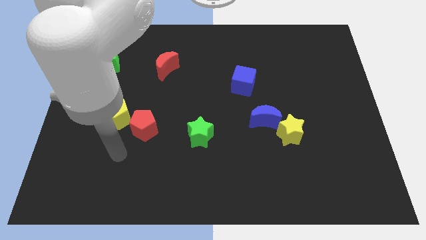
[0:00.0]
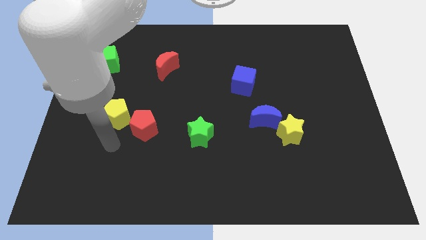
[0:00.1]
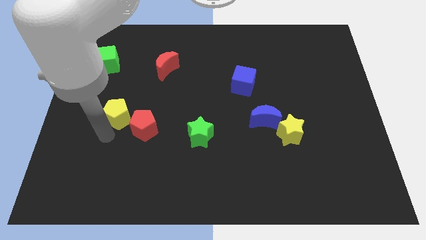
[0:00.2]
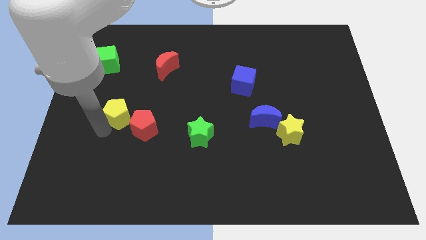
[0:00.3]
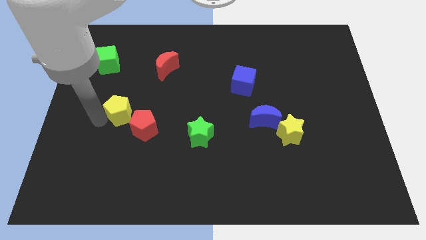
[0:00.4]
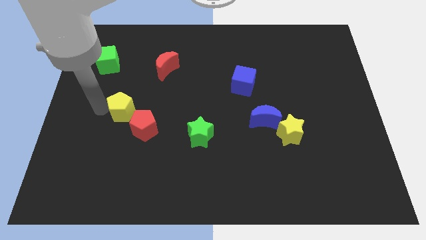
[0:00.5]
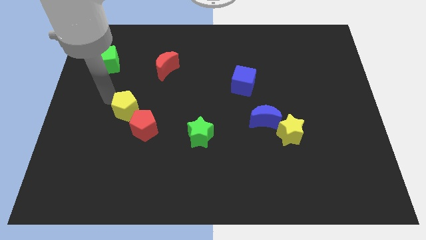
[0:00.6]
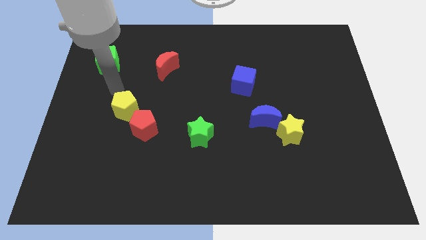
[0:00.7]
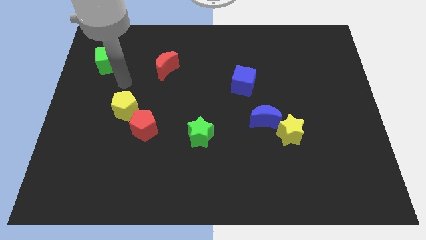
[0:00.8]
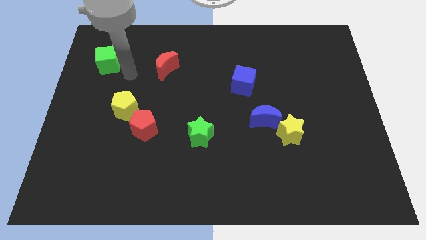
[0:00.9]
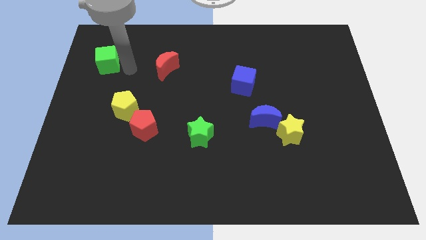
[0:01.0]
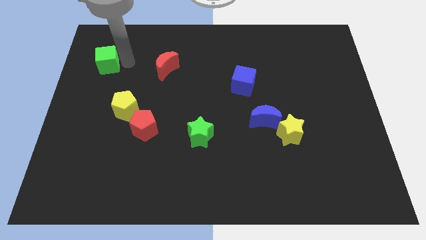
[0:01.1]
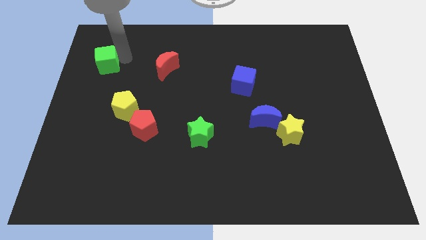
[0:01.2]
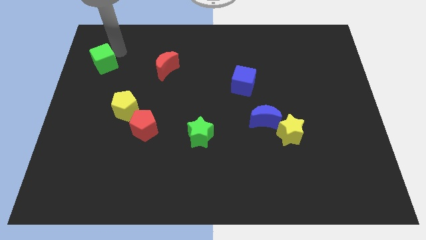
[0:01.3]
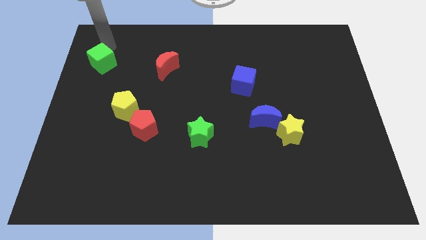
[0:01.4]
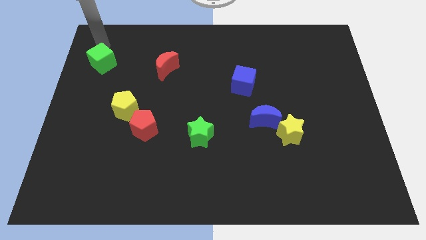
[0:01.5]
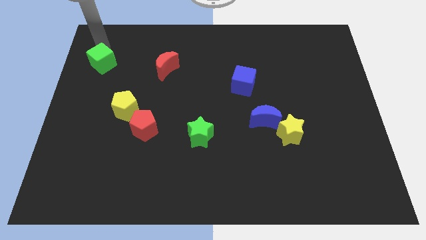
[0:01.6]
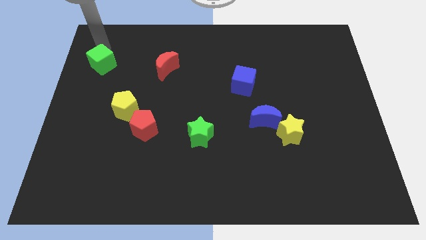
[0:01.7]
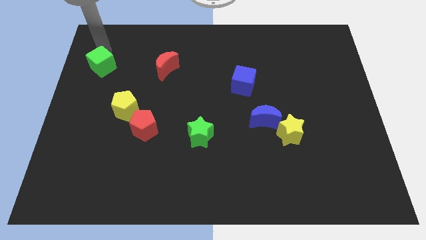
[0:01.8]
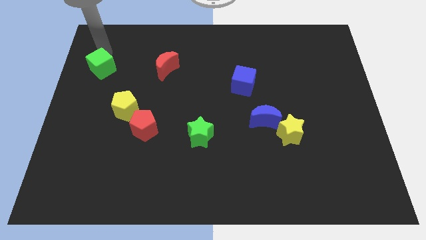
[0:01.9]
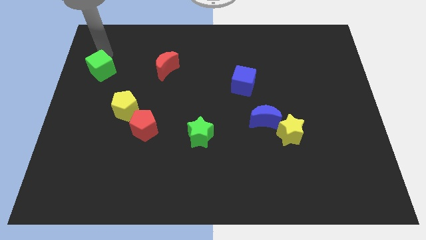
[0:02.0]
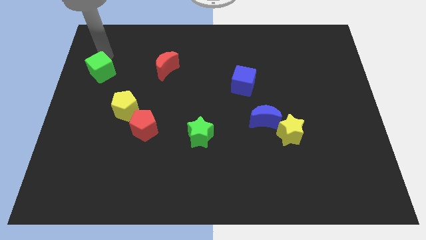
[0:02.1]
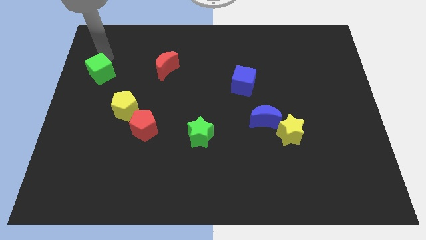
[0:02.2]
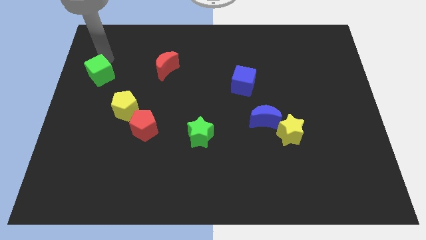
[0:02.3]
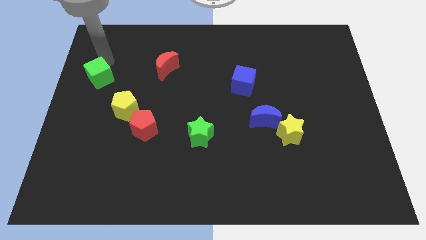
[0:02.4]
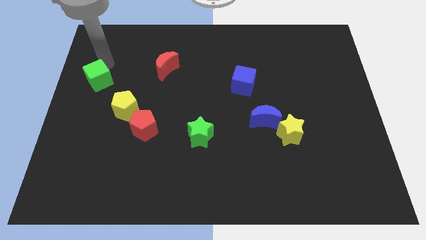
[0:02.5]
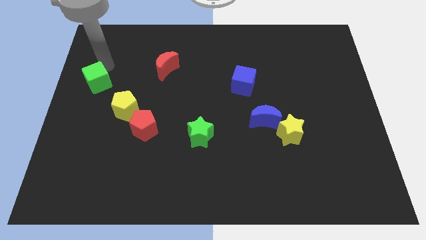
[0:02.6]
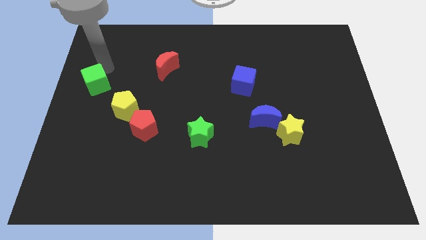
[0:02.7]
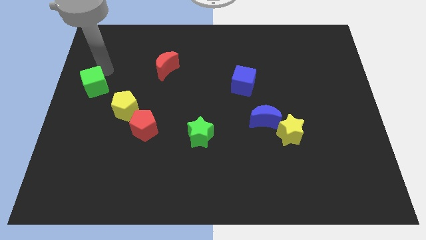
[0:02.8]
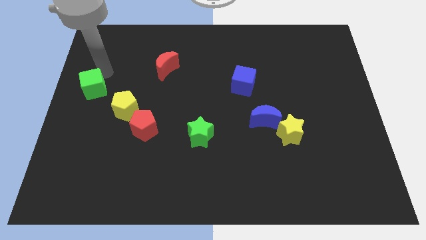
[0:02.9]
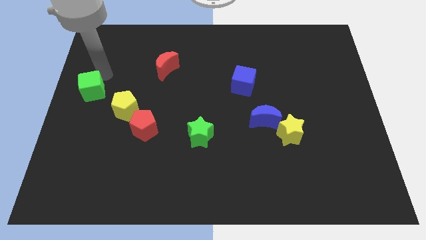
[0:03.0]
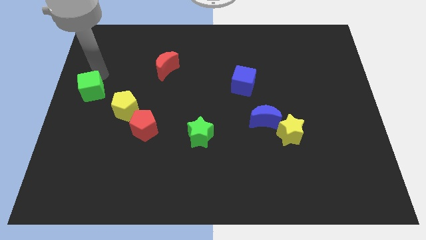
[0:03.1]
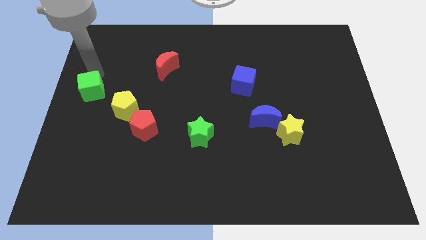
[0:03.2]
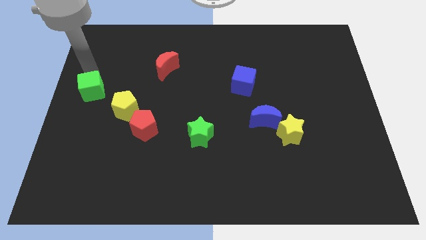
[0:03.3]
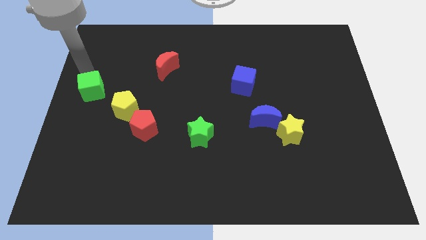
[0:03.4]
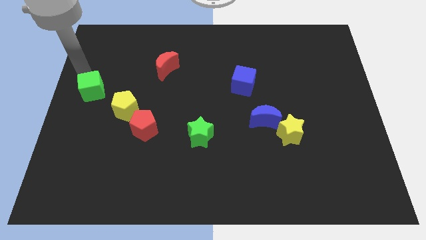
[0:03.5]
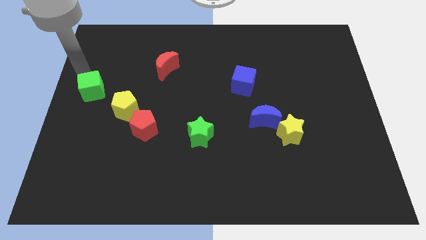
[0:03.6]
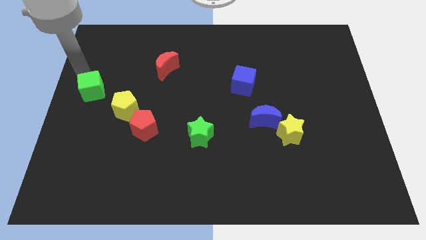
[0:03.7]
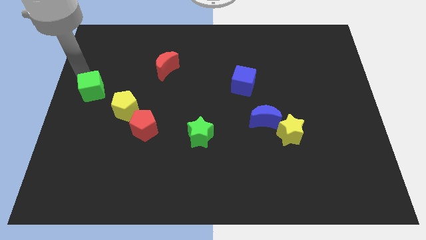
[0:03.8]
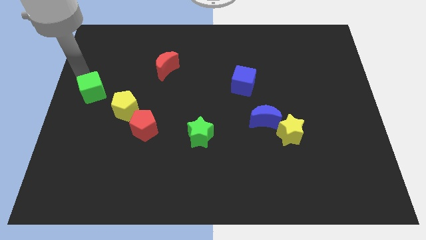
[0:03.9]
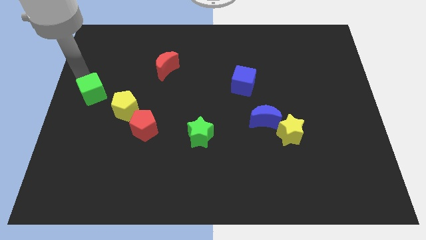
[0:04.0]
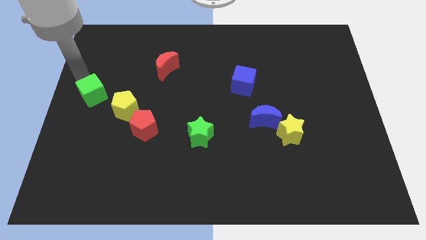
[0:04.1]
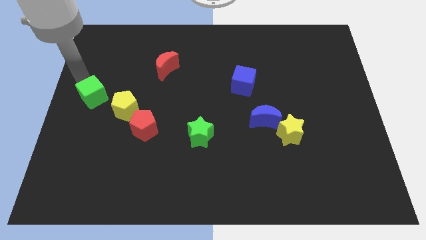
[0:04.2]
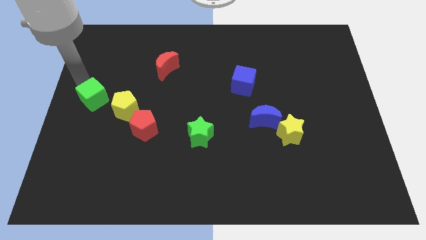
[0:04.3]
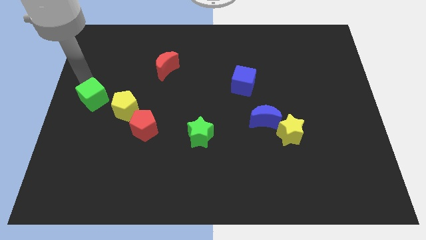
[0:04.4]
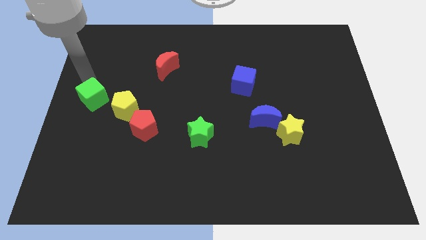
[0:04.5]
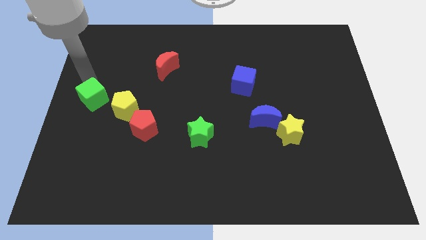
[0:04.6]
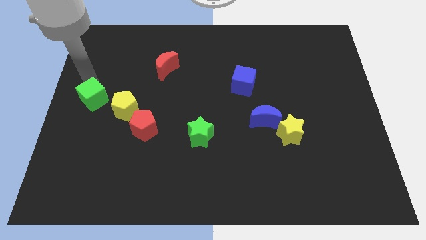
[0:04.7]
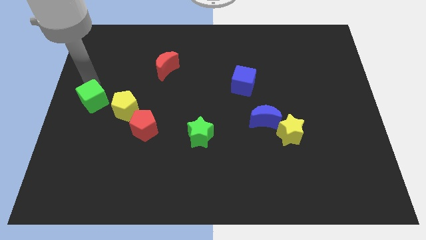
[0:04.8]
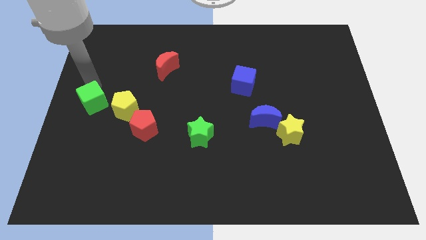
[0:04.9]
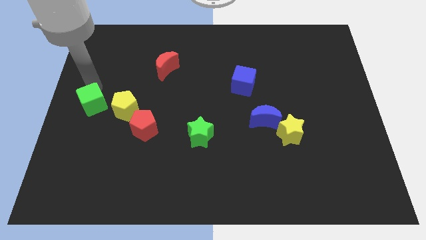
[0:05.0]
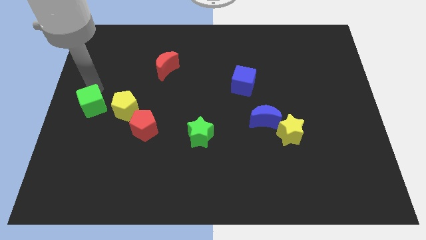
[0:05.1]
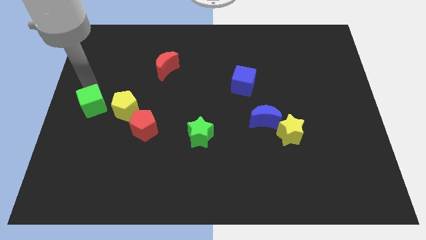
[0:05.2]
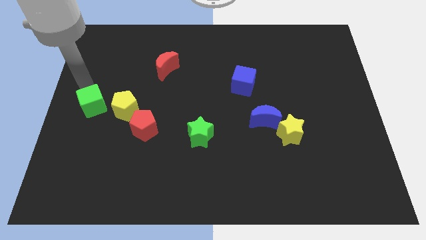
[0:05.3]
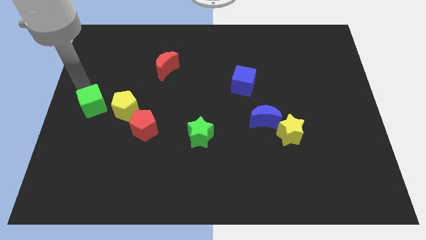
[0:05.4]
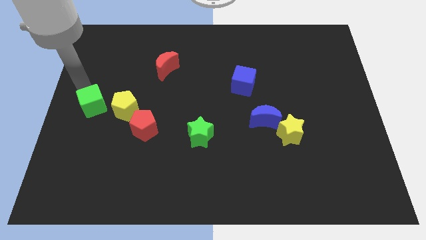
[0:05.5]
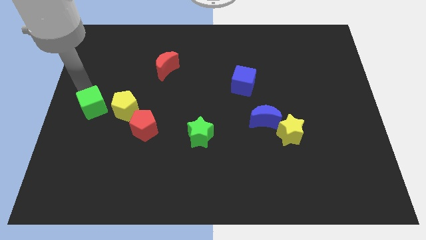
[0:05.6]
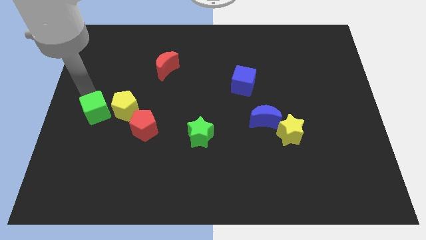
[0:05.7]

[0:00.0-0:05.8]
put the green cube diagonally down and to the left of the yellow pentagon

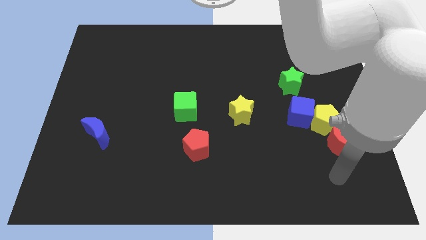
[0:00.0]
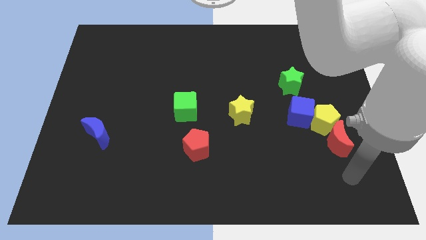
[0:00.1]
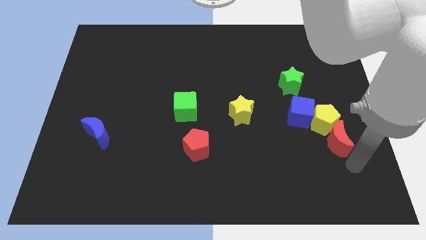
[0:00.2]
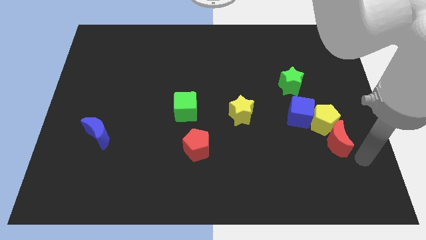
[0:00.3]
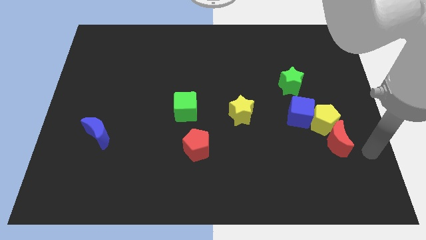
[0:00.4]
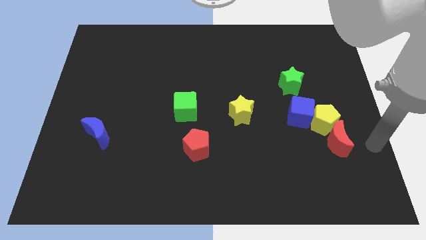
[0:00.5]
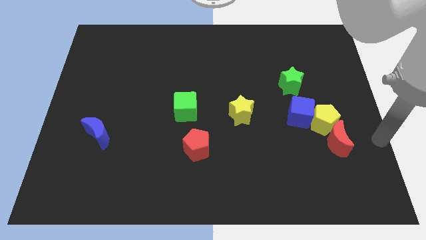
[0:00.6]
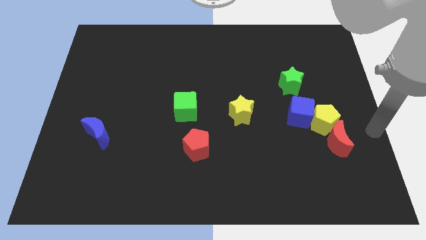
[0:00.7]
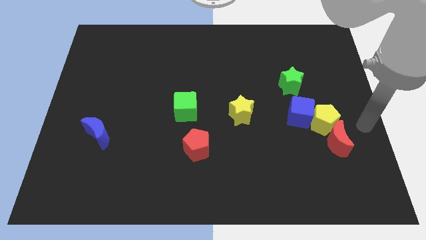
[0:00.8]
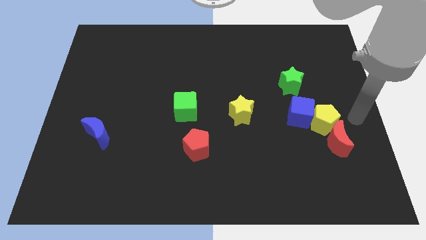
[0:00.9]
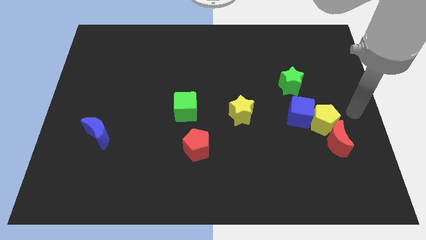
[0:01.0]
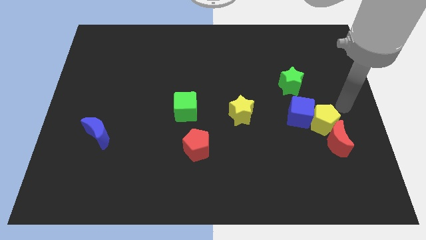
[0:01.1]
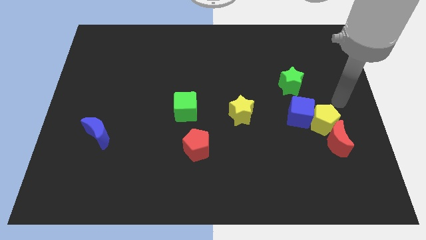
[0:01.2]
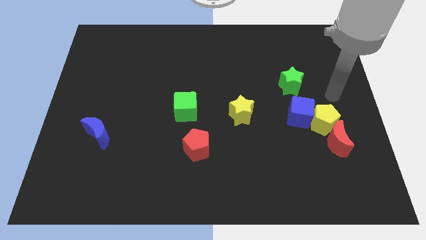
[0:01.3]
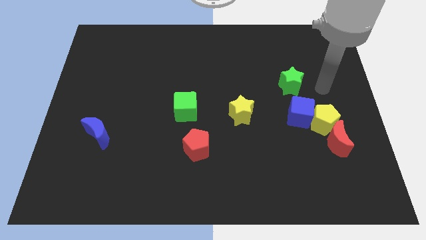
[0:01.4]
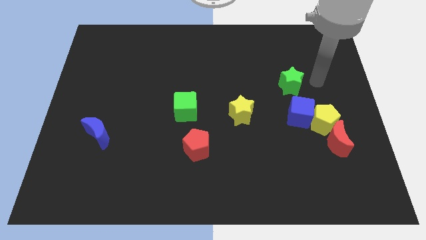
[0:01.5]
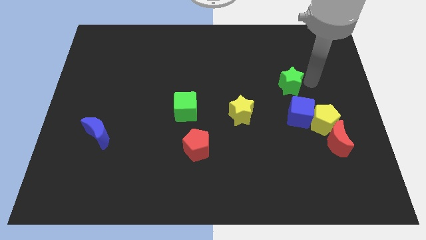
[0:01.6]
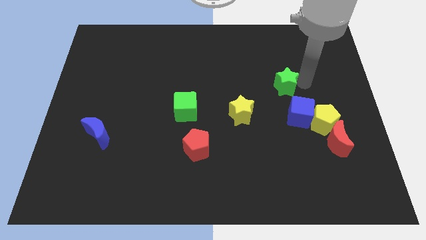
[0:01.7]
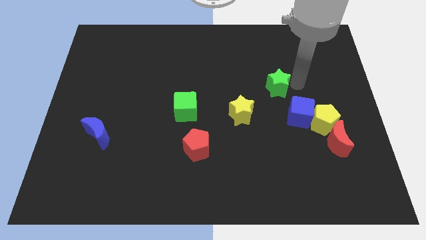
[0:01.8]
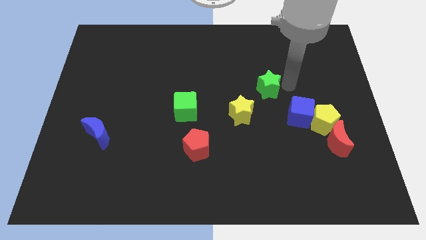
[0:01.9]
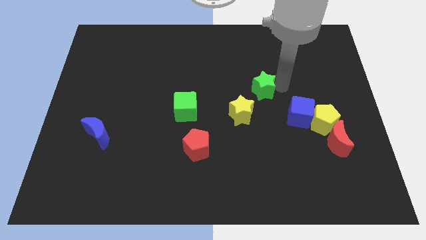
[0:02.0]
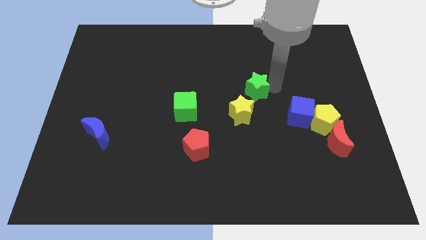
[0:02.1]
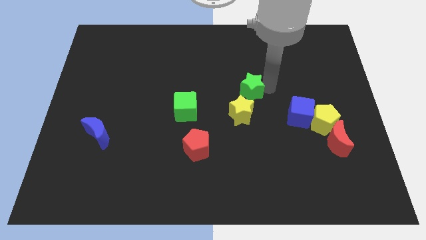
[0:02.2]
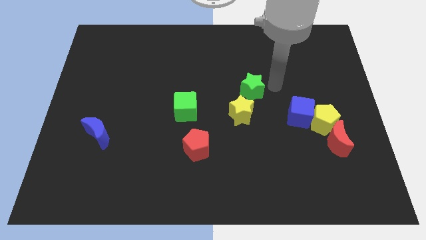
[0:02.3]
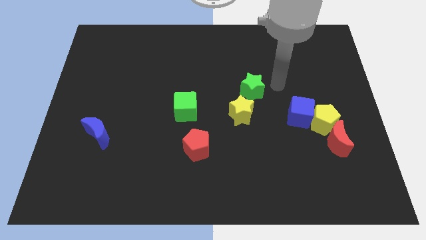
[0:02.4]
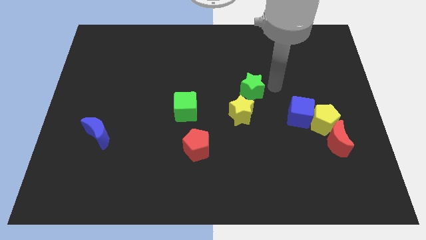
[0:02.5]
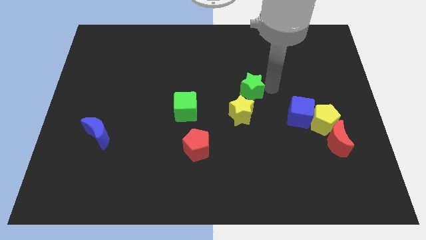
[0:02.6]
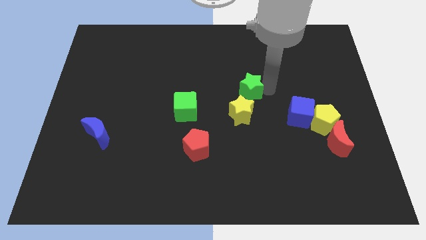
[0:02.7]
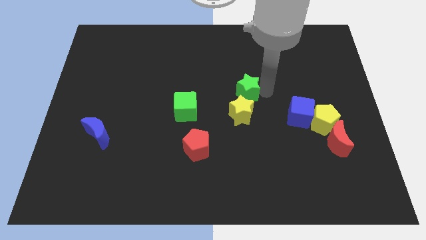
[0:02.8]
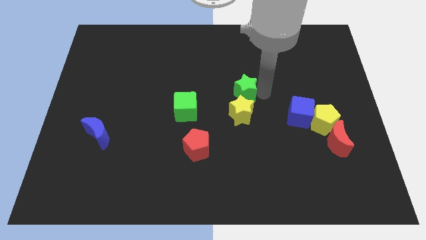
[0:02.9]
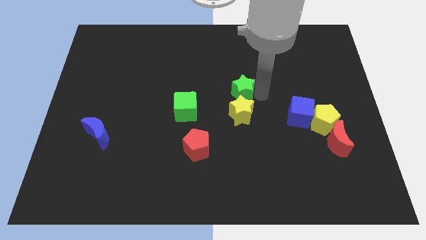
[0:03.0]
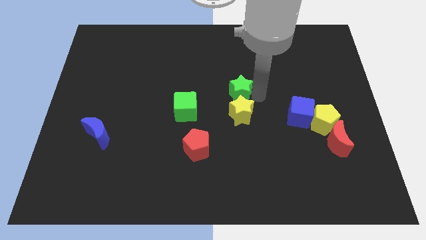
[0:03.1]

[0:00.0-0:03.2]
slide the green star to the top left of the yellow star
